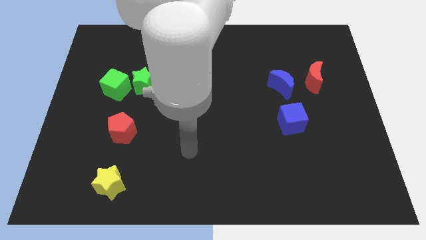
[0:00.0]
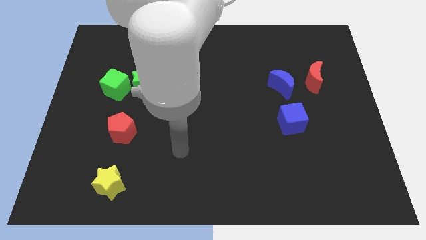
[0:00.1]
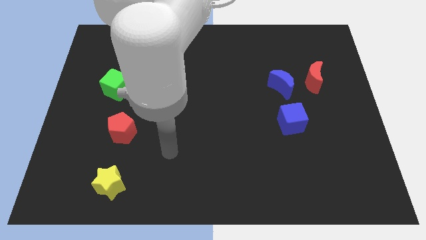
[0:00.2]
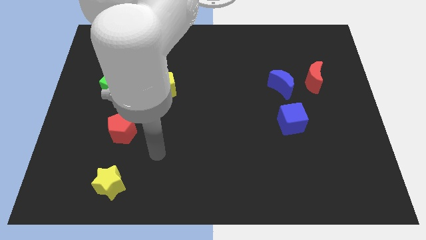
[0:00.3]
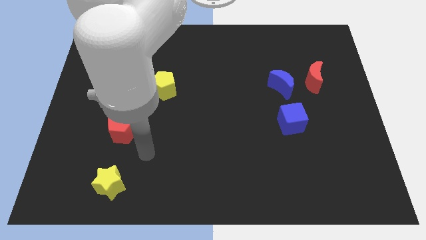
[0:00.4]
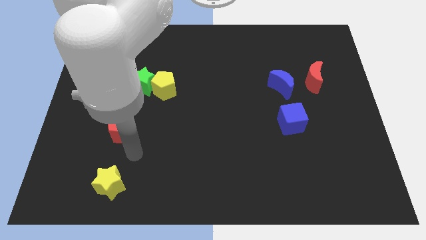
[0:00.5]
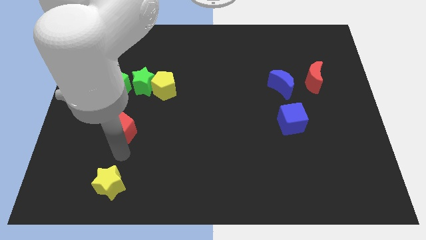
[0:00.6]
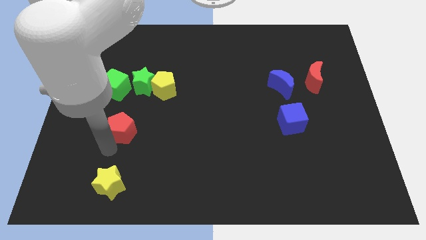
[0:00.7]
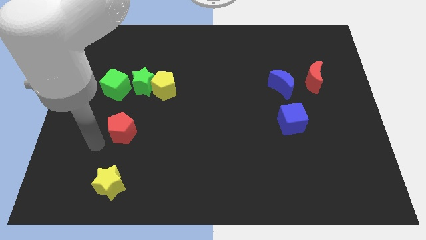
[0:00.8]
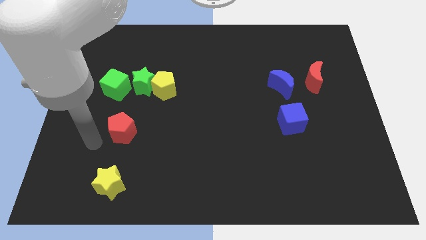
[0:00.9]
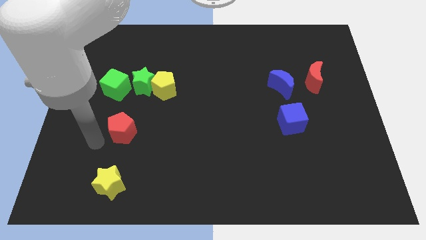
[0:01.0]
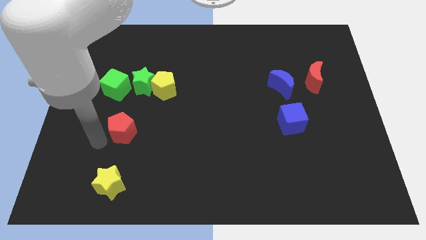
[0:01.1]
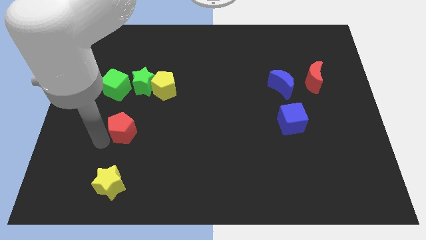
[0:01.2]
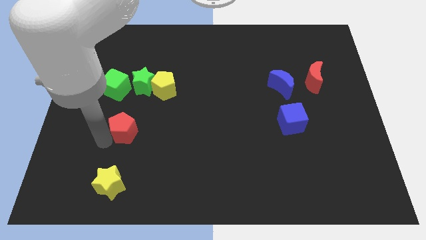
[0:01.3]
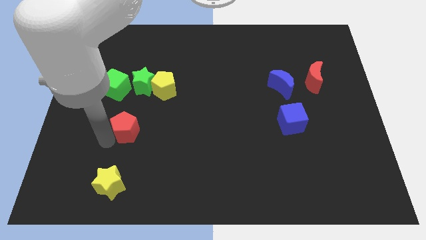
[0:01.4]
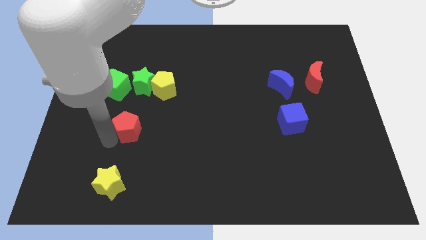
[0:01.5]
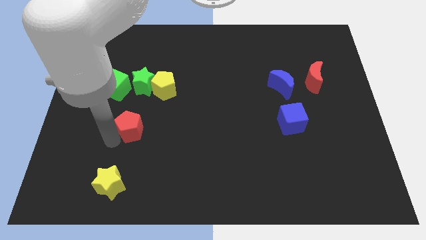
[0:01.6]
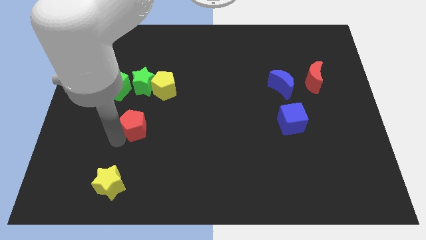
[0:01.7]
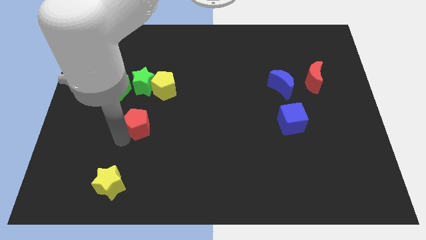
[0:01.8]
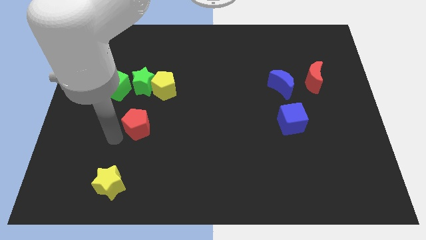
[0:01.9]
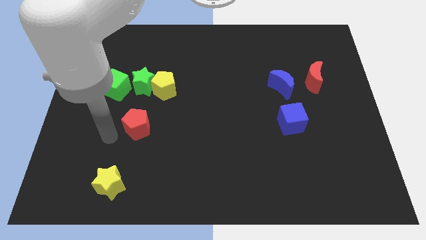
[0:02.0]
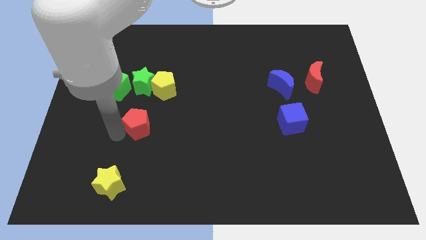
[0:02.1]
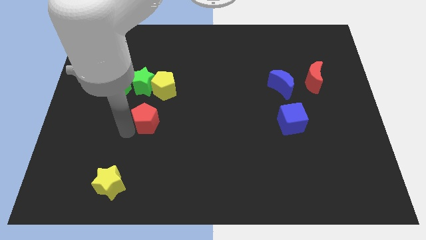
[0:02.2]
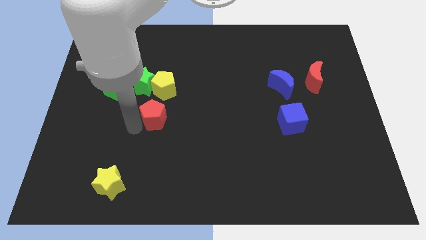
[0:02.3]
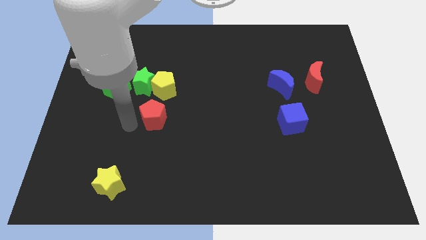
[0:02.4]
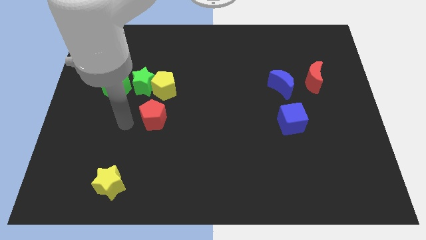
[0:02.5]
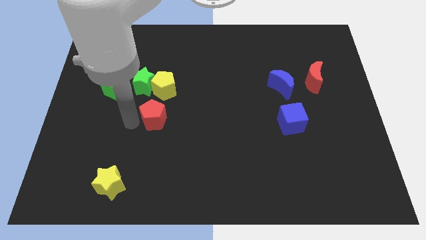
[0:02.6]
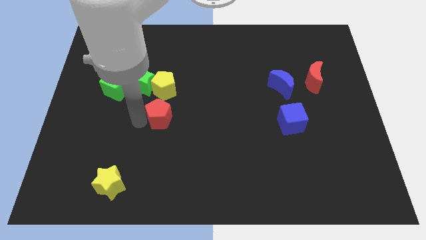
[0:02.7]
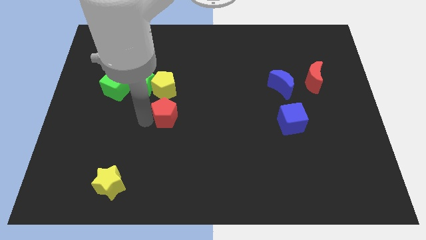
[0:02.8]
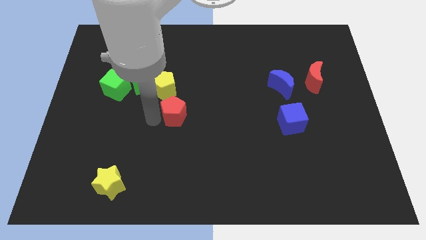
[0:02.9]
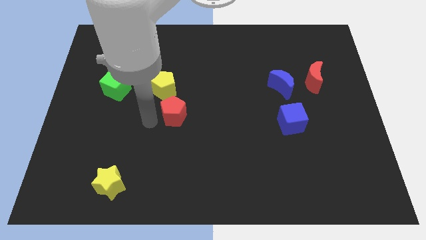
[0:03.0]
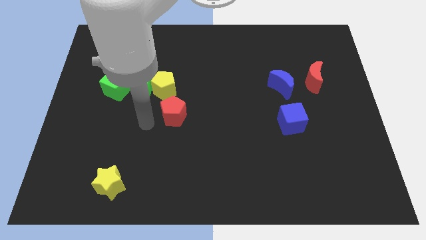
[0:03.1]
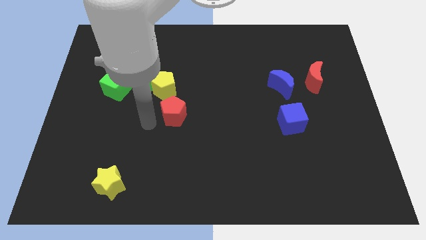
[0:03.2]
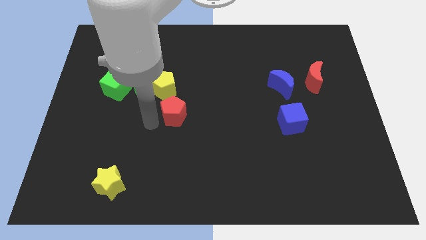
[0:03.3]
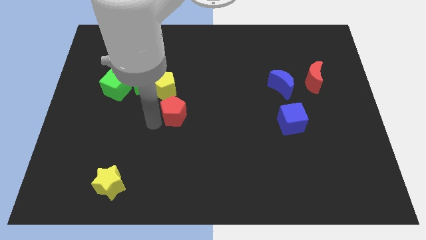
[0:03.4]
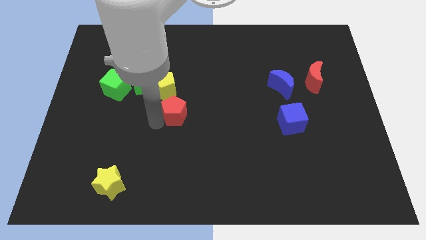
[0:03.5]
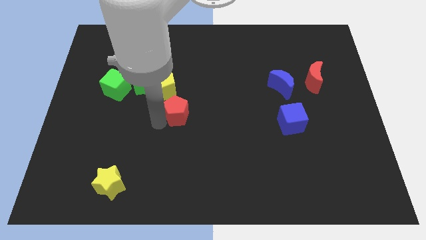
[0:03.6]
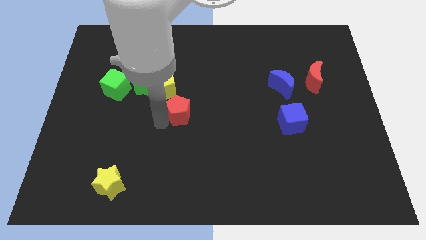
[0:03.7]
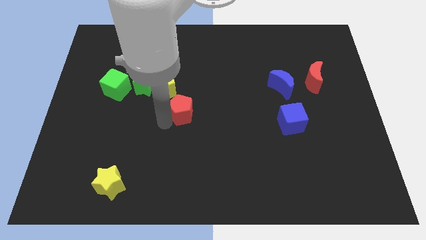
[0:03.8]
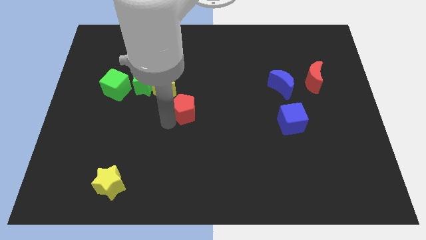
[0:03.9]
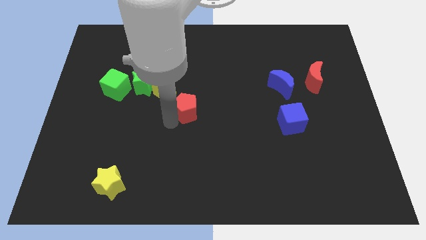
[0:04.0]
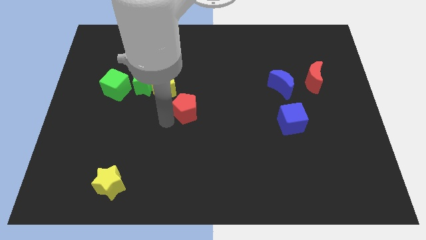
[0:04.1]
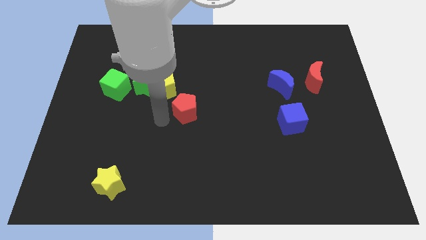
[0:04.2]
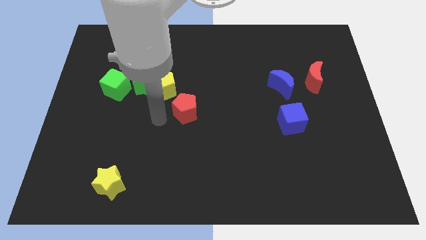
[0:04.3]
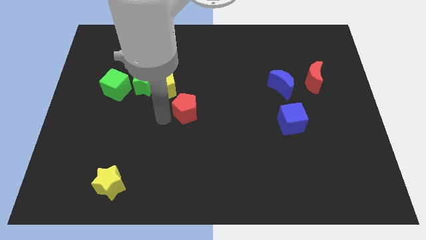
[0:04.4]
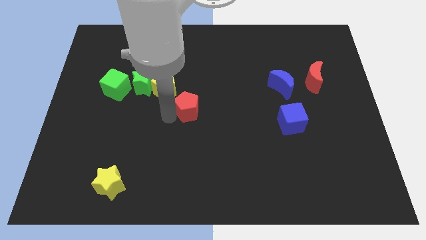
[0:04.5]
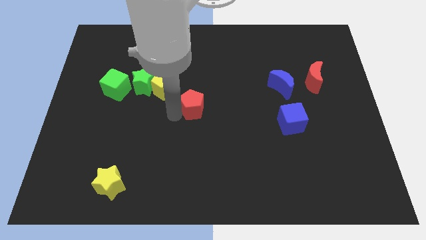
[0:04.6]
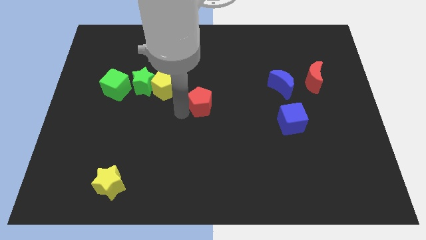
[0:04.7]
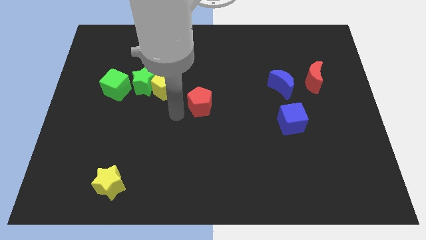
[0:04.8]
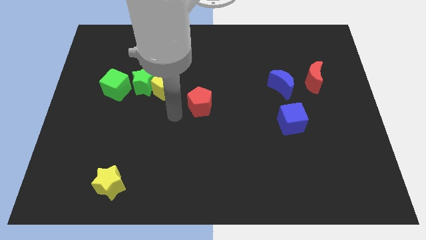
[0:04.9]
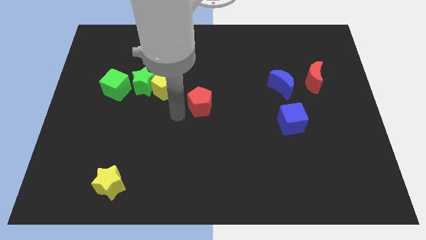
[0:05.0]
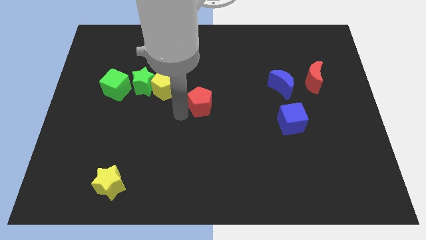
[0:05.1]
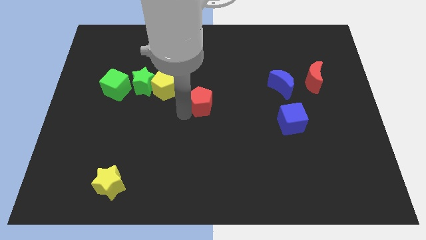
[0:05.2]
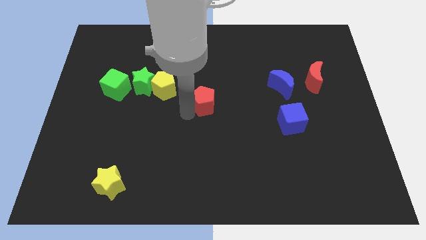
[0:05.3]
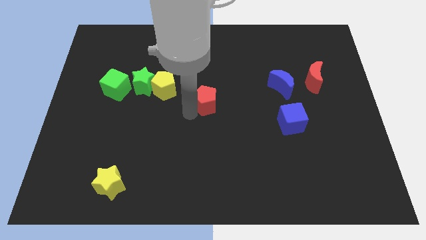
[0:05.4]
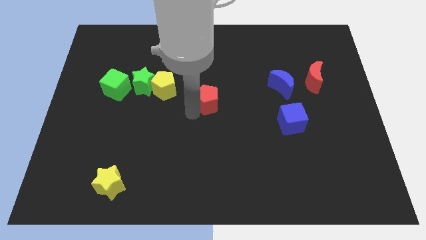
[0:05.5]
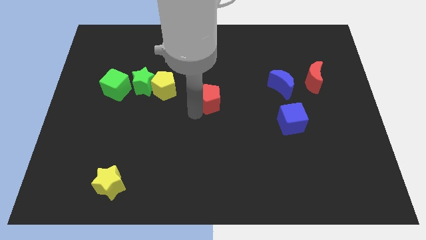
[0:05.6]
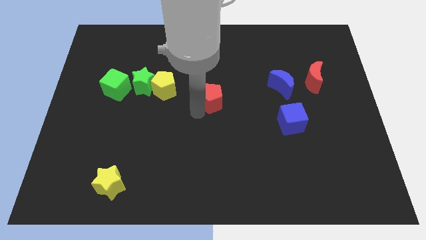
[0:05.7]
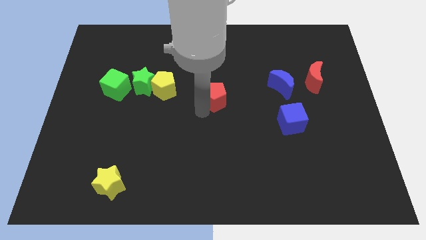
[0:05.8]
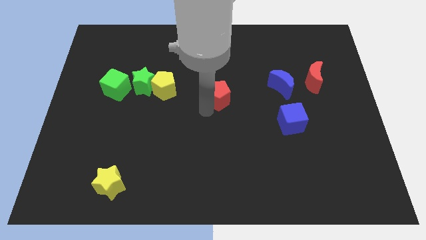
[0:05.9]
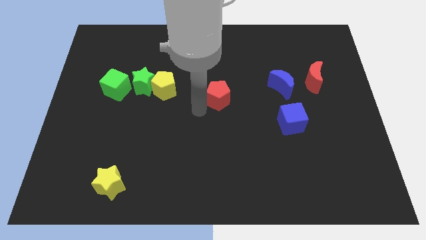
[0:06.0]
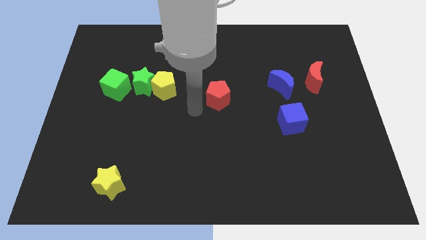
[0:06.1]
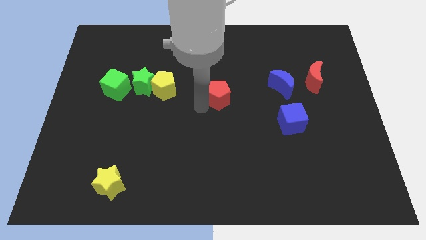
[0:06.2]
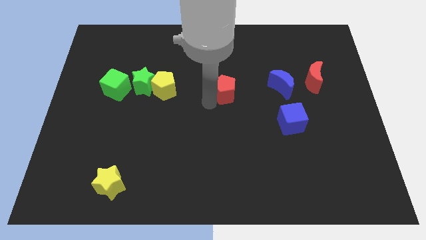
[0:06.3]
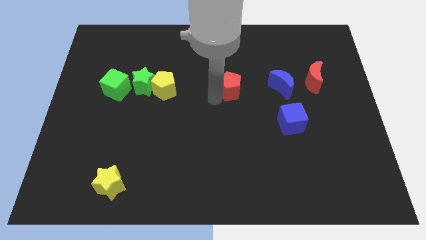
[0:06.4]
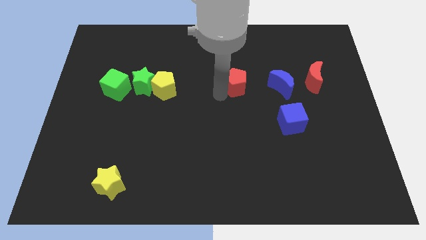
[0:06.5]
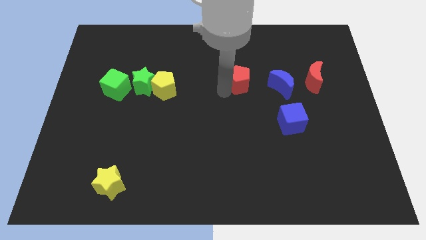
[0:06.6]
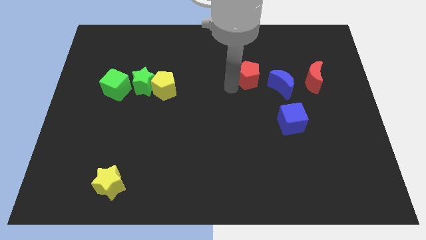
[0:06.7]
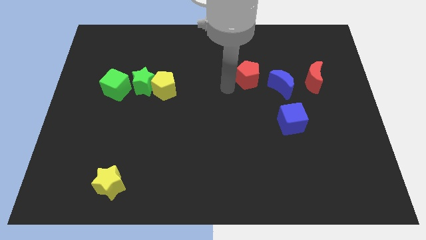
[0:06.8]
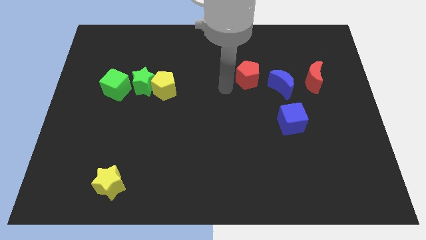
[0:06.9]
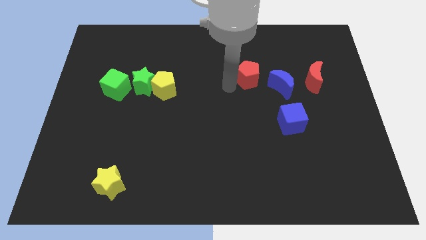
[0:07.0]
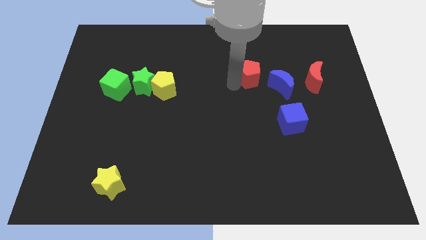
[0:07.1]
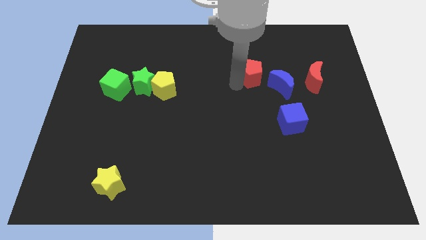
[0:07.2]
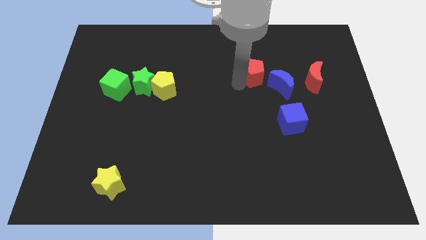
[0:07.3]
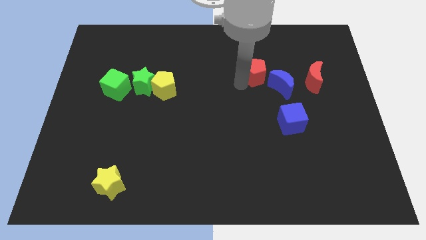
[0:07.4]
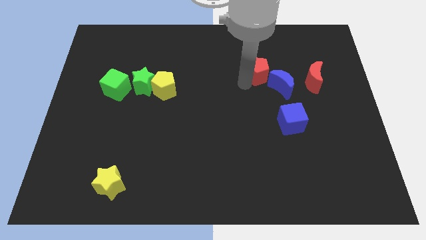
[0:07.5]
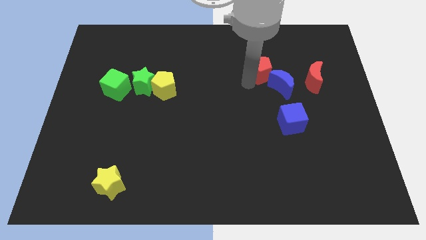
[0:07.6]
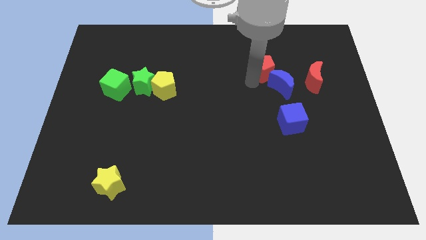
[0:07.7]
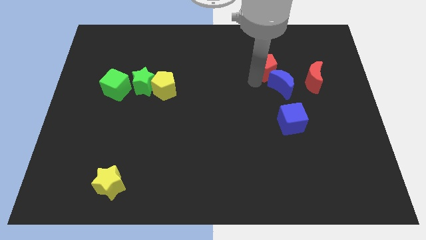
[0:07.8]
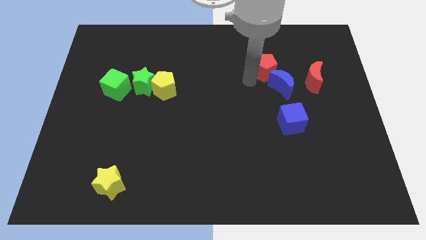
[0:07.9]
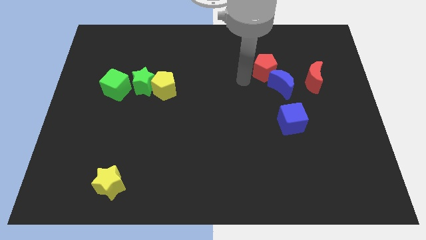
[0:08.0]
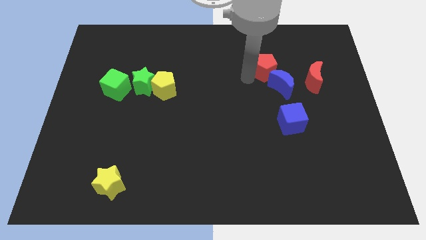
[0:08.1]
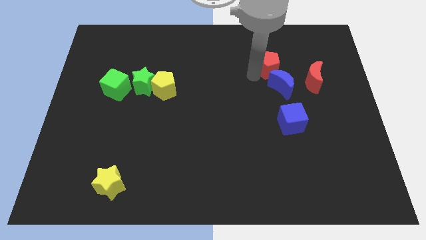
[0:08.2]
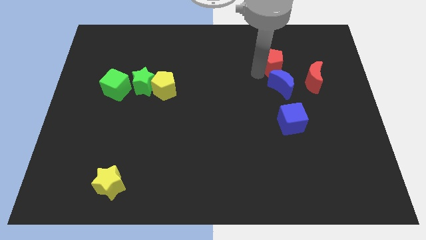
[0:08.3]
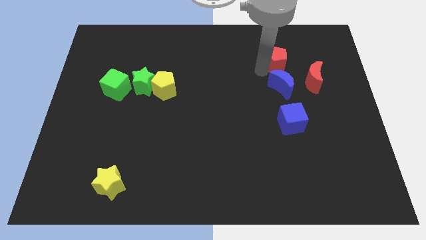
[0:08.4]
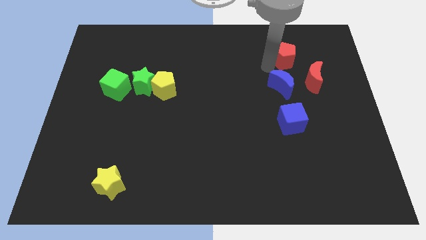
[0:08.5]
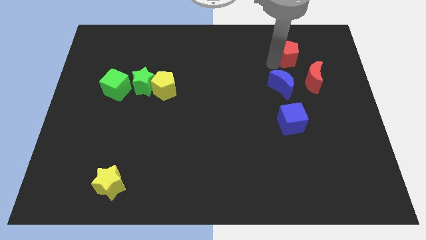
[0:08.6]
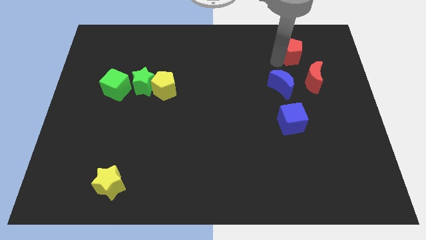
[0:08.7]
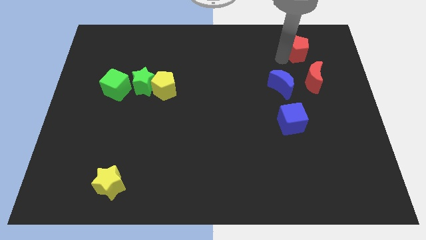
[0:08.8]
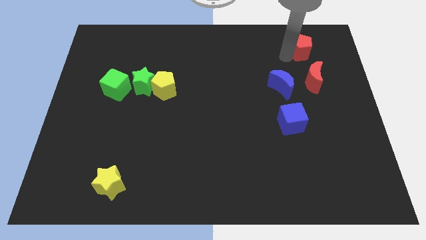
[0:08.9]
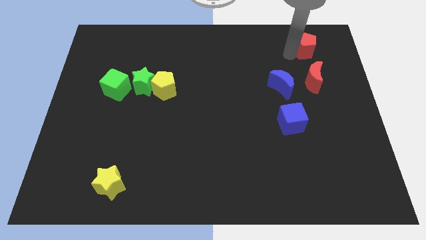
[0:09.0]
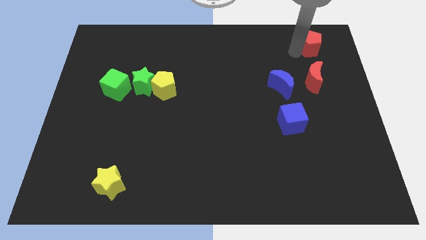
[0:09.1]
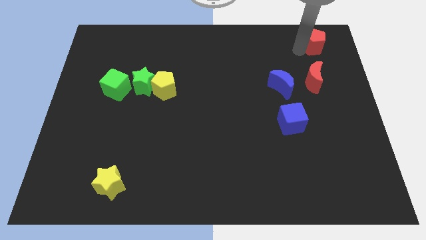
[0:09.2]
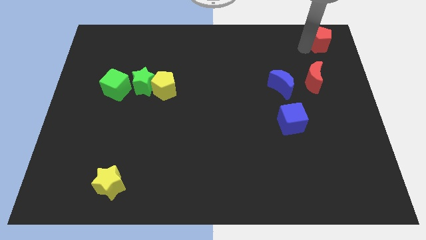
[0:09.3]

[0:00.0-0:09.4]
push the red pentagon to the top right corner
